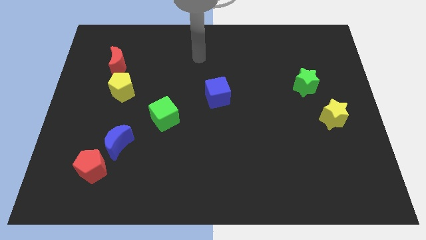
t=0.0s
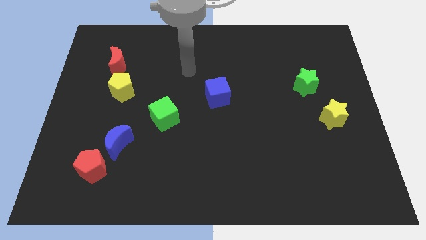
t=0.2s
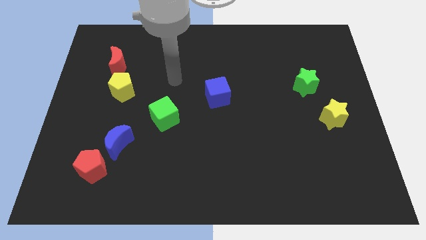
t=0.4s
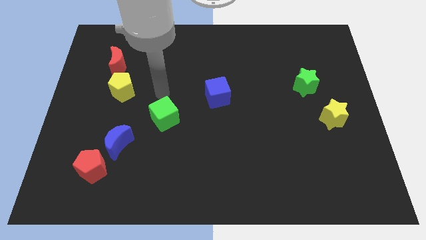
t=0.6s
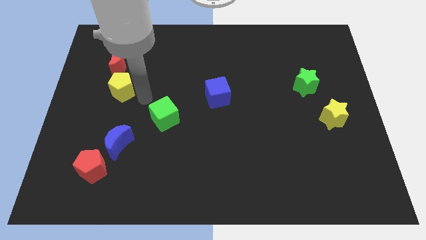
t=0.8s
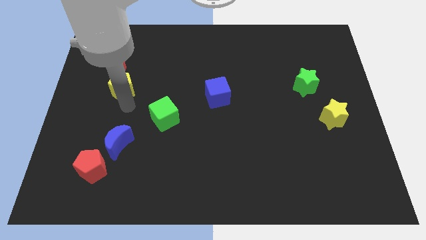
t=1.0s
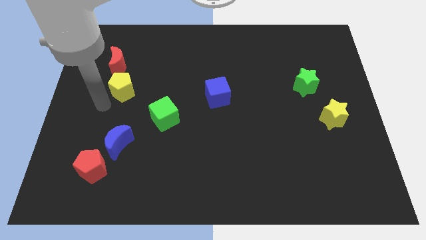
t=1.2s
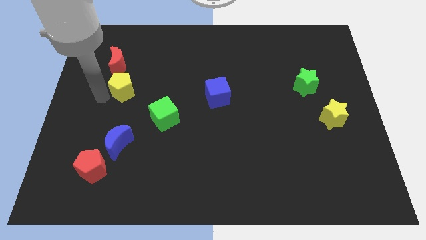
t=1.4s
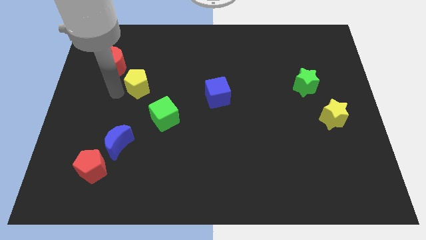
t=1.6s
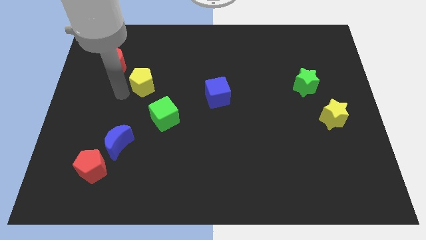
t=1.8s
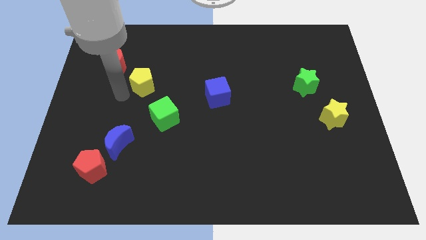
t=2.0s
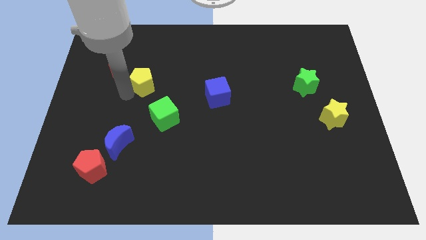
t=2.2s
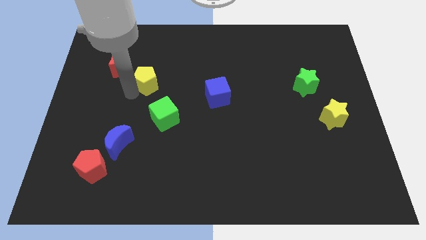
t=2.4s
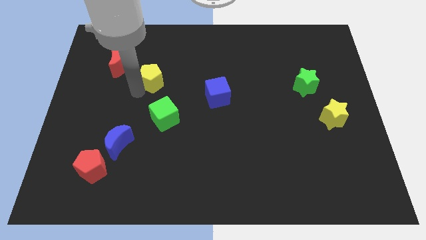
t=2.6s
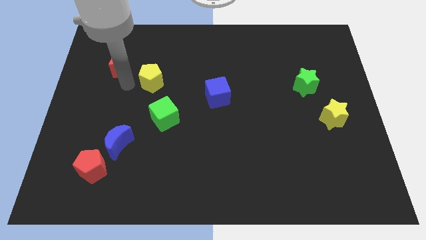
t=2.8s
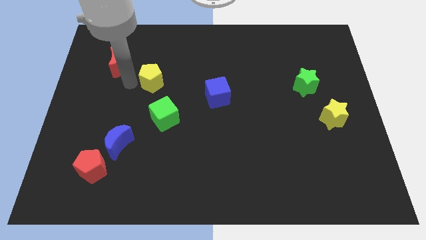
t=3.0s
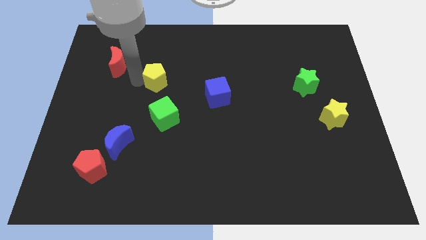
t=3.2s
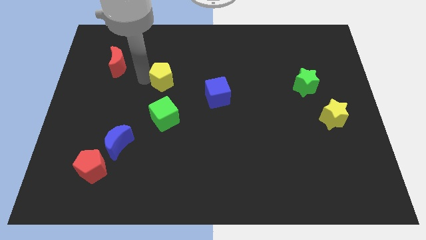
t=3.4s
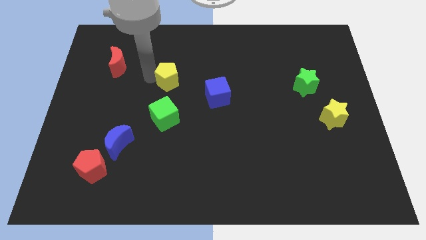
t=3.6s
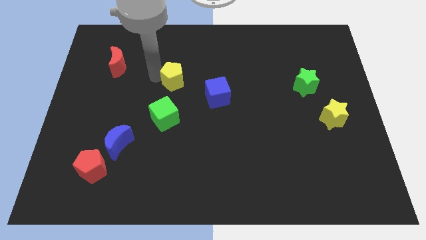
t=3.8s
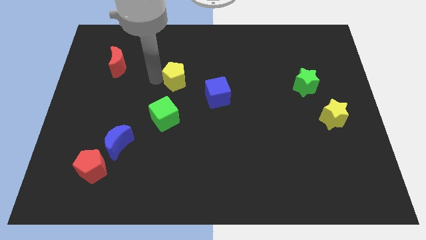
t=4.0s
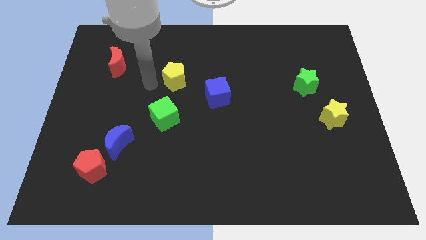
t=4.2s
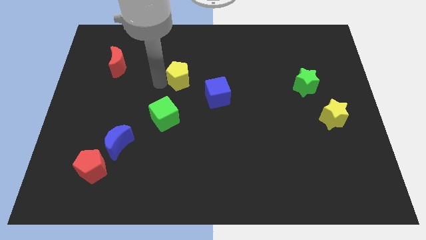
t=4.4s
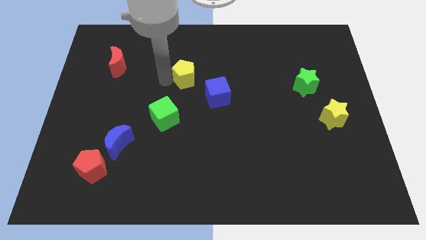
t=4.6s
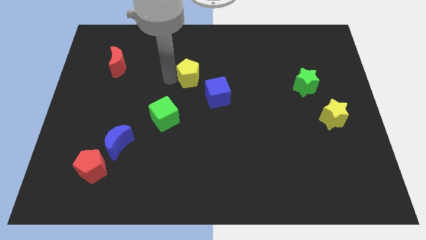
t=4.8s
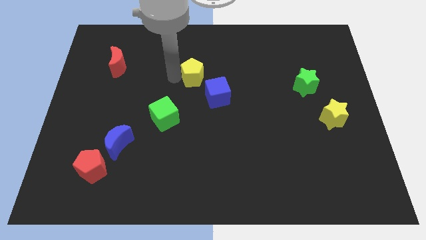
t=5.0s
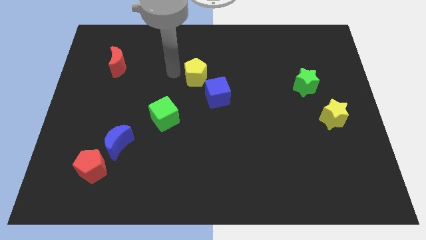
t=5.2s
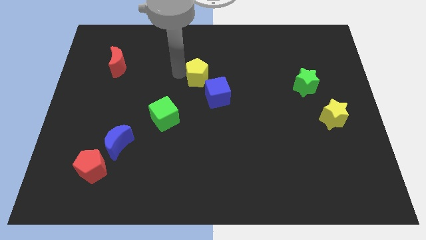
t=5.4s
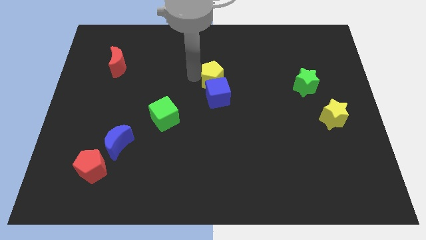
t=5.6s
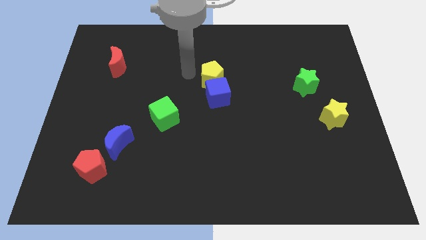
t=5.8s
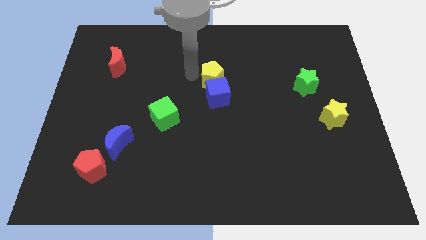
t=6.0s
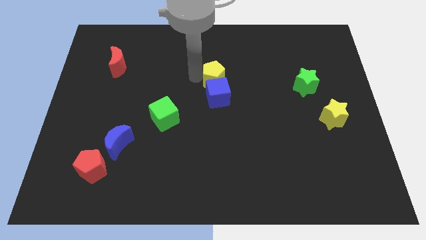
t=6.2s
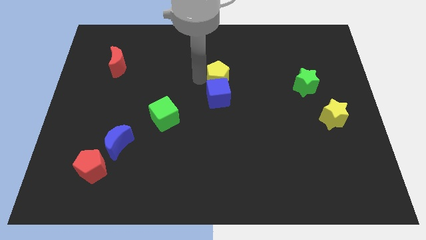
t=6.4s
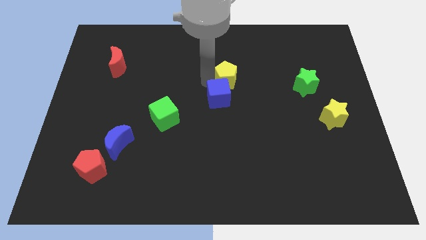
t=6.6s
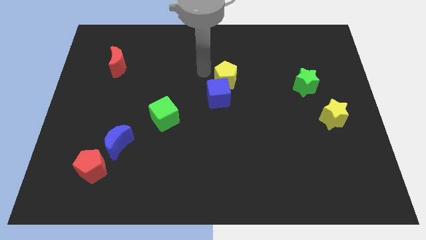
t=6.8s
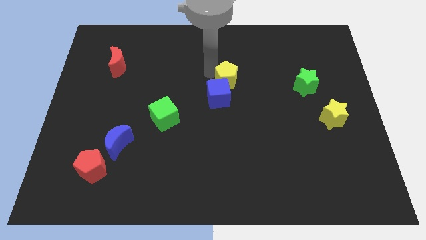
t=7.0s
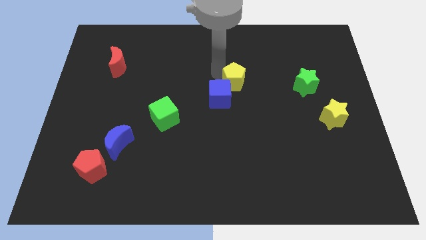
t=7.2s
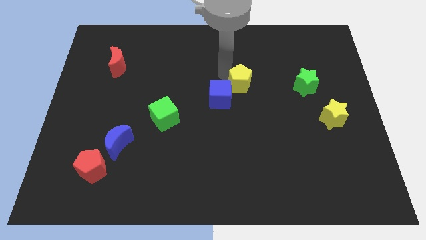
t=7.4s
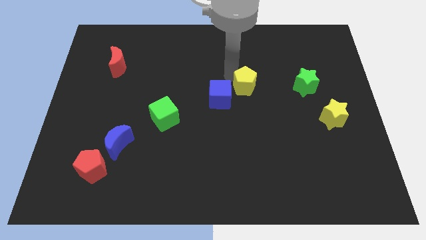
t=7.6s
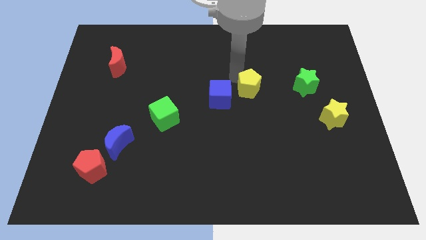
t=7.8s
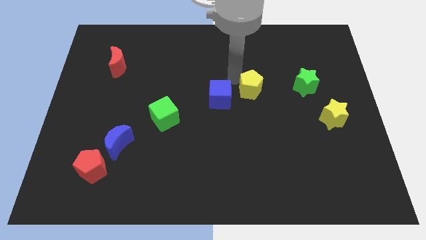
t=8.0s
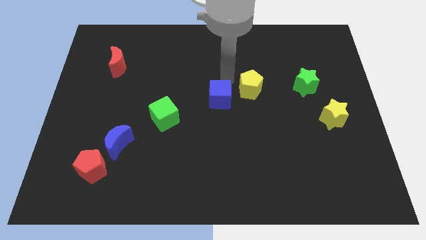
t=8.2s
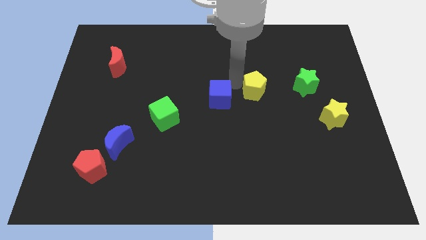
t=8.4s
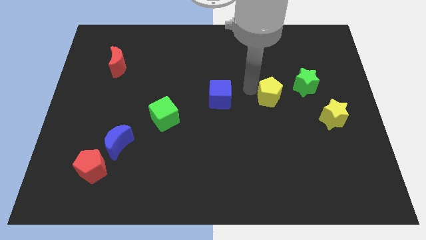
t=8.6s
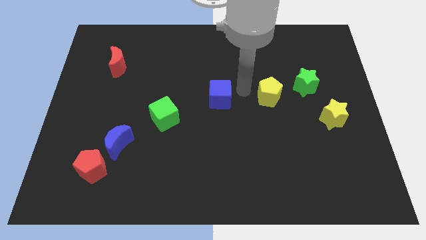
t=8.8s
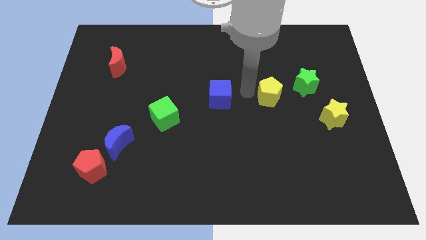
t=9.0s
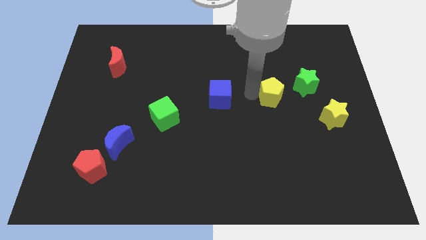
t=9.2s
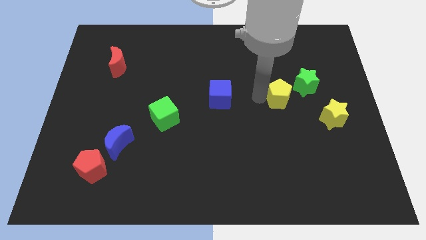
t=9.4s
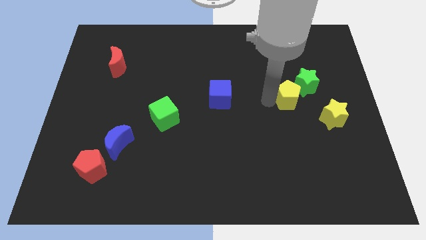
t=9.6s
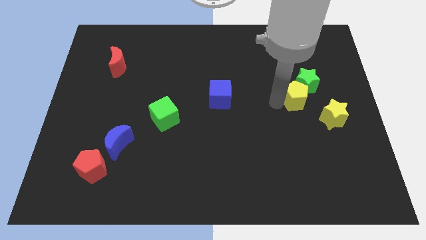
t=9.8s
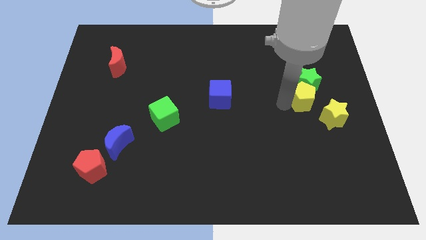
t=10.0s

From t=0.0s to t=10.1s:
move the yellow pentagon to the bottom right of the green star

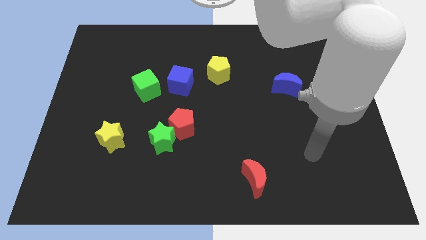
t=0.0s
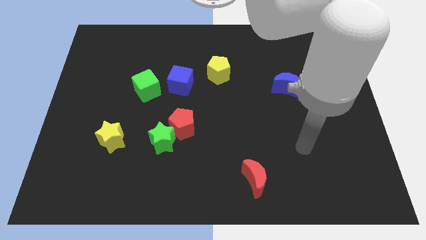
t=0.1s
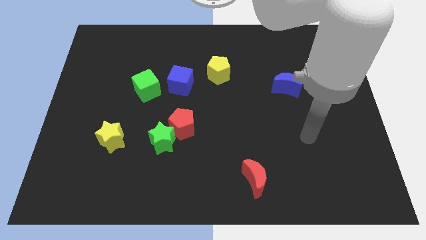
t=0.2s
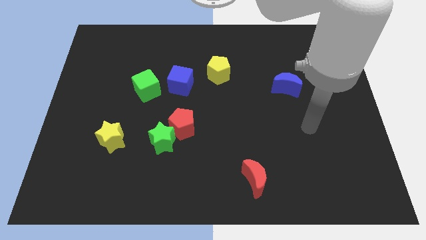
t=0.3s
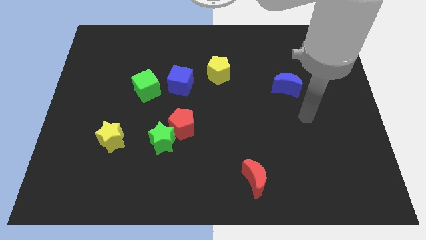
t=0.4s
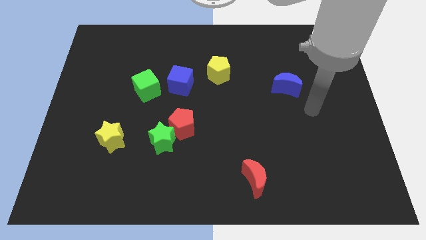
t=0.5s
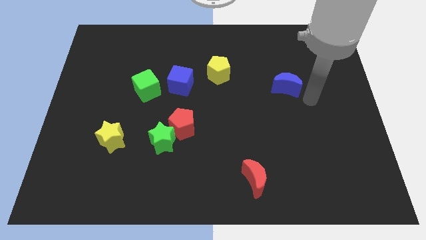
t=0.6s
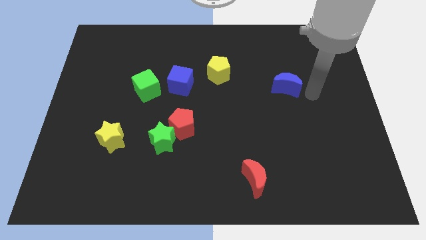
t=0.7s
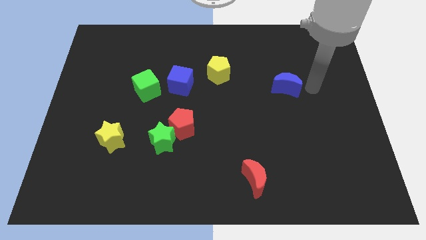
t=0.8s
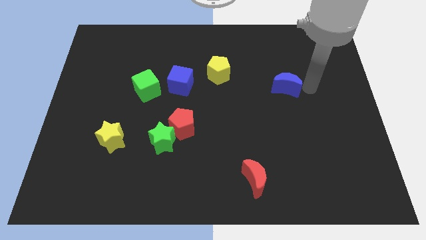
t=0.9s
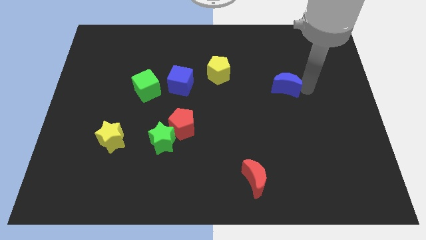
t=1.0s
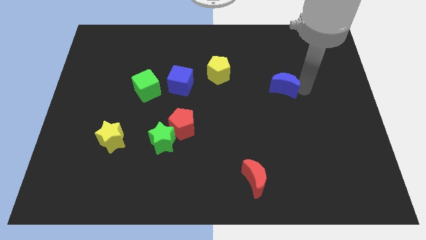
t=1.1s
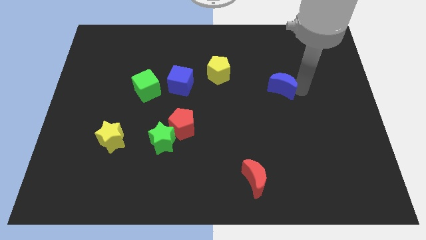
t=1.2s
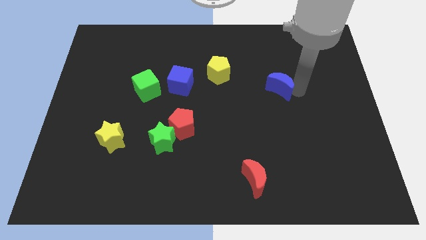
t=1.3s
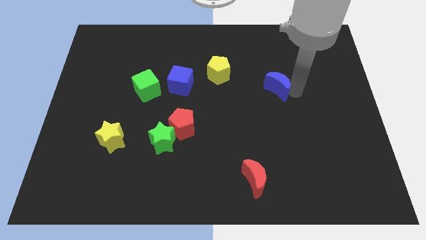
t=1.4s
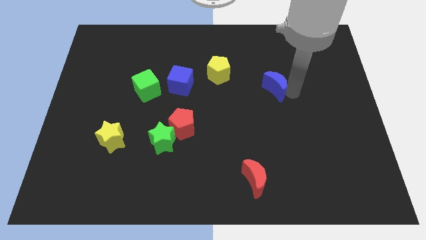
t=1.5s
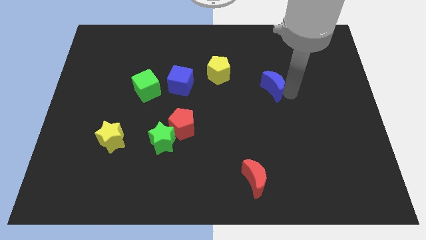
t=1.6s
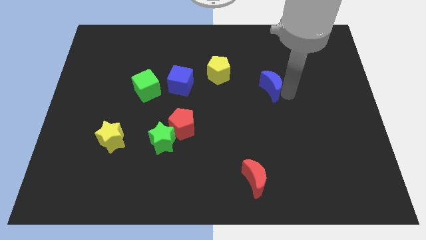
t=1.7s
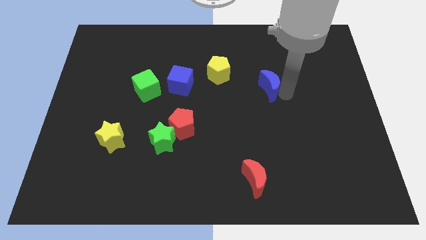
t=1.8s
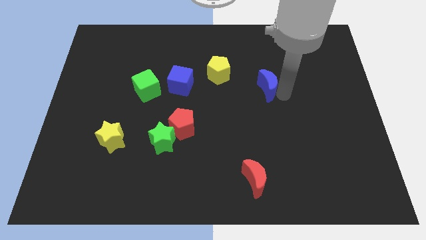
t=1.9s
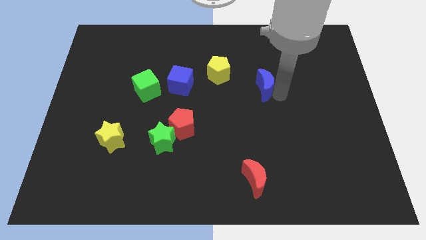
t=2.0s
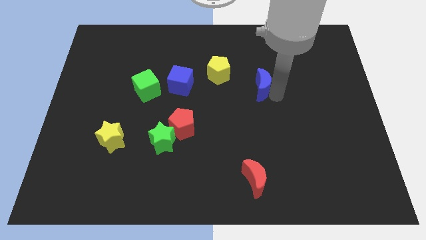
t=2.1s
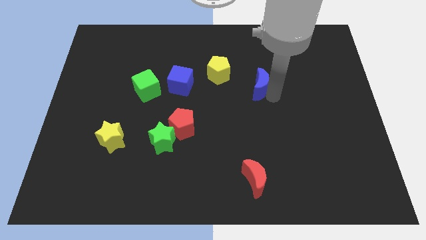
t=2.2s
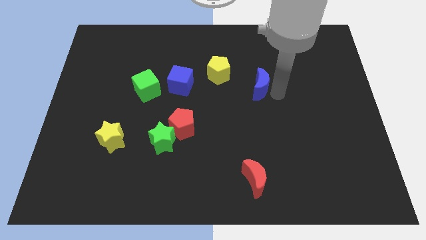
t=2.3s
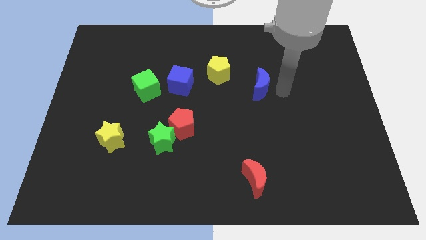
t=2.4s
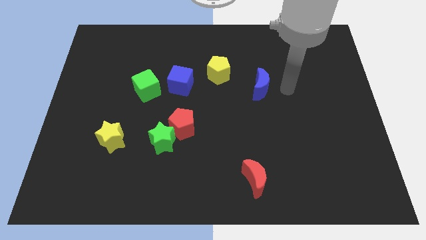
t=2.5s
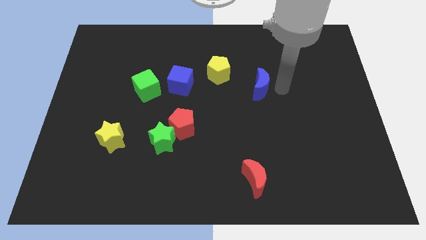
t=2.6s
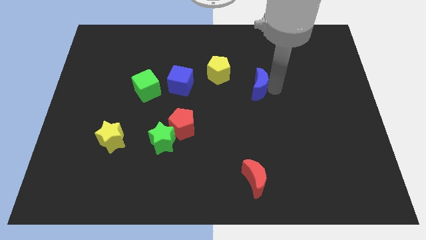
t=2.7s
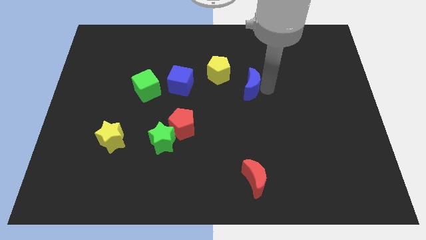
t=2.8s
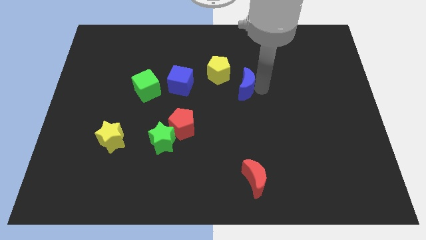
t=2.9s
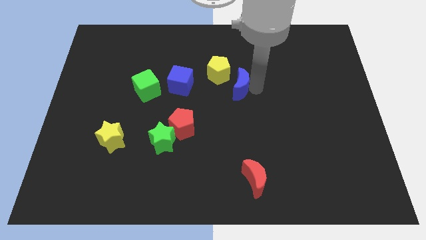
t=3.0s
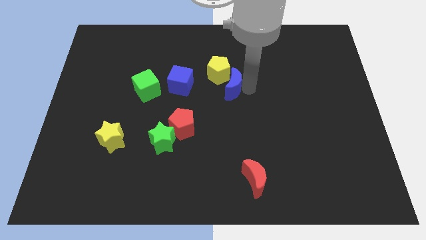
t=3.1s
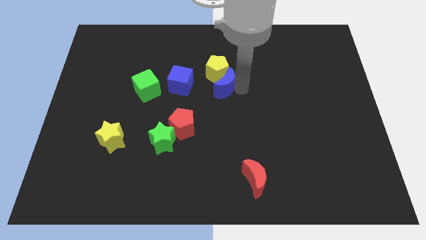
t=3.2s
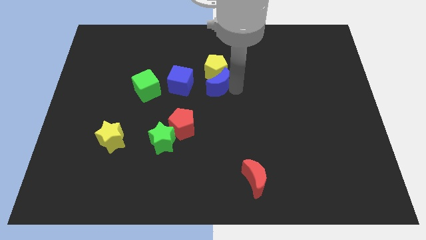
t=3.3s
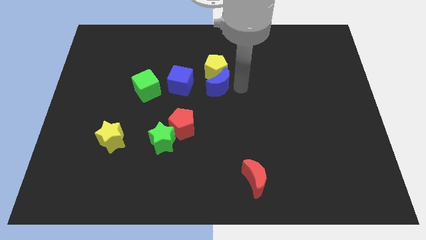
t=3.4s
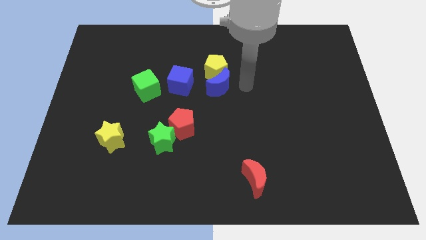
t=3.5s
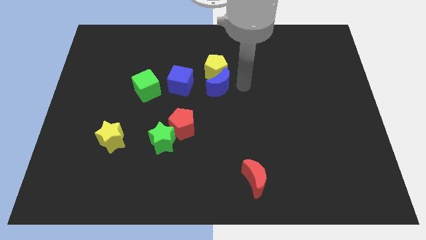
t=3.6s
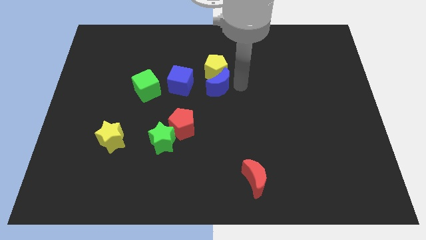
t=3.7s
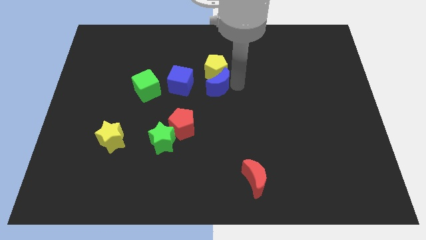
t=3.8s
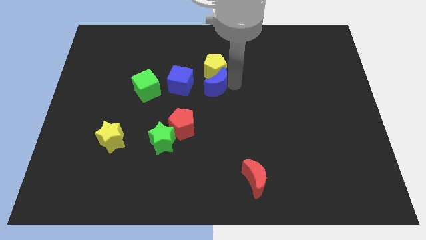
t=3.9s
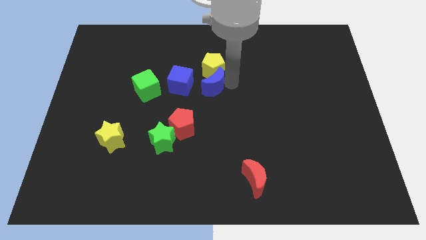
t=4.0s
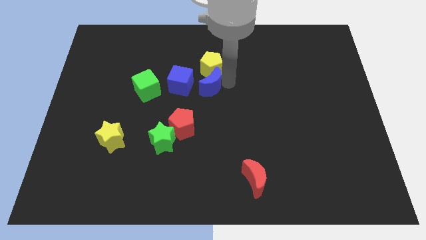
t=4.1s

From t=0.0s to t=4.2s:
slide the blue moon right of the green cube
